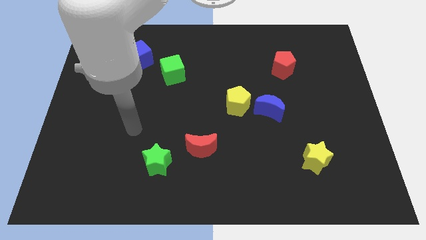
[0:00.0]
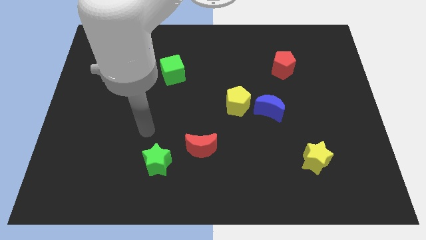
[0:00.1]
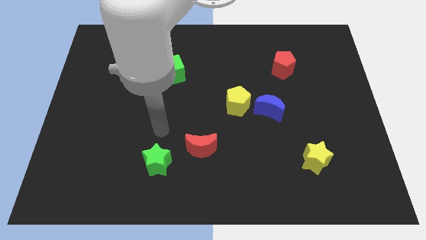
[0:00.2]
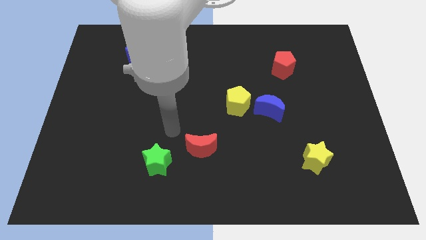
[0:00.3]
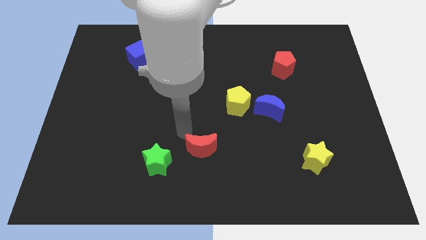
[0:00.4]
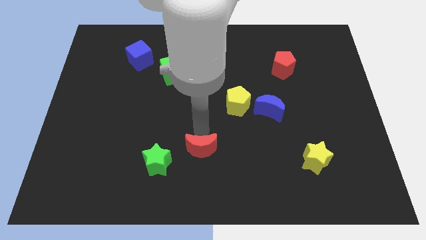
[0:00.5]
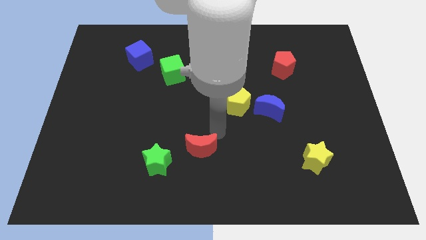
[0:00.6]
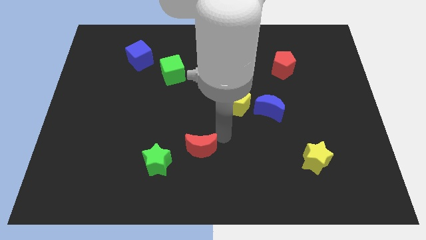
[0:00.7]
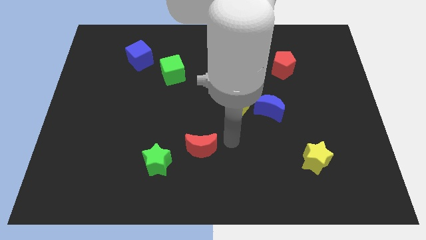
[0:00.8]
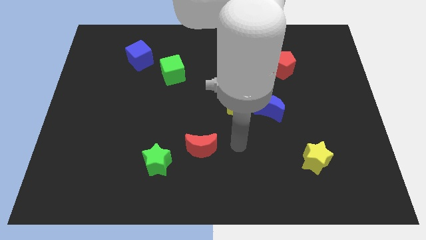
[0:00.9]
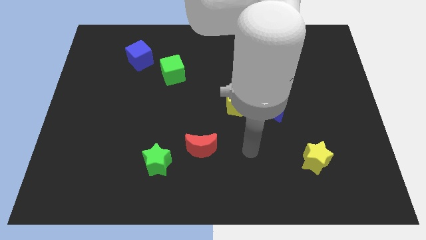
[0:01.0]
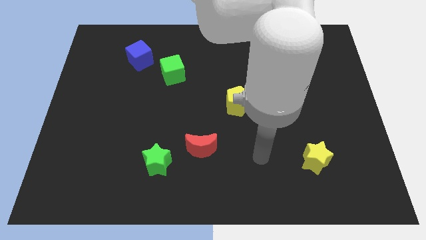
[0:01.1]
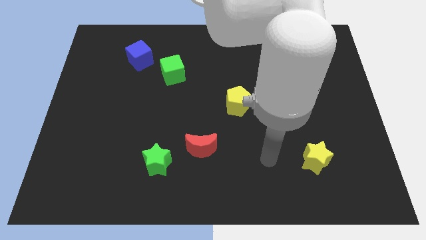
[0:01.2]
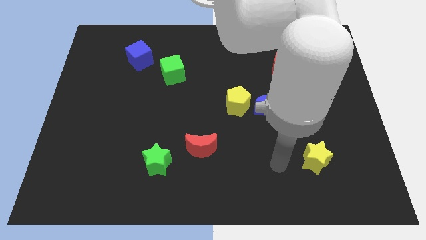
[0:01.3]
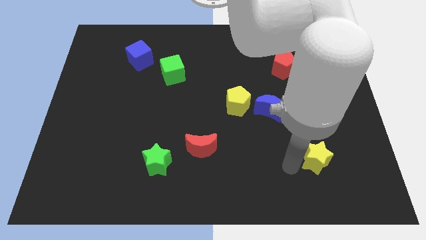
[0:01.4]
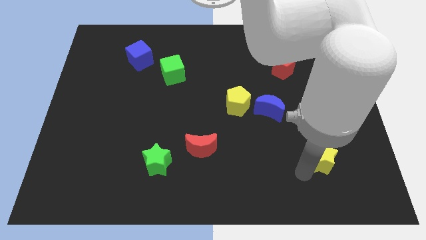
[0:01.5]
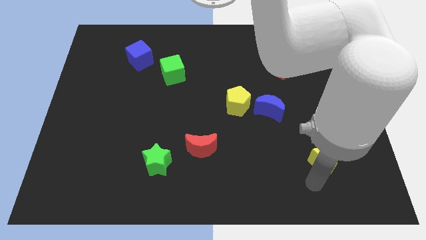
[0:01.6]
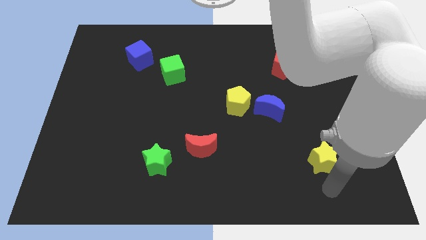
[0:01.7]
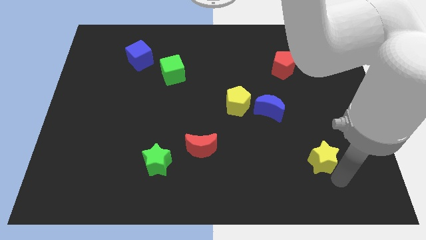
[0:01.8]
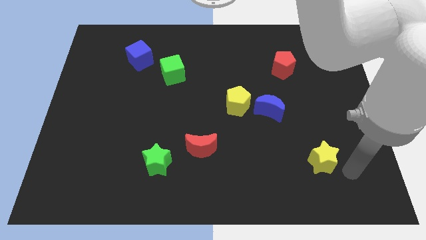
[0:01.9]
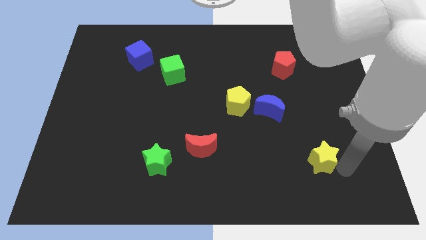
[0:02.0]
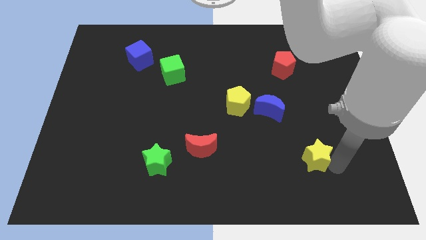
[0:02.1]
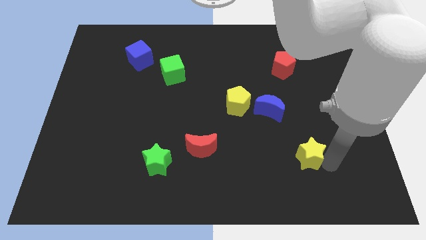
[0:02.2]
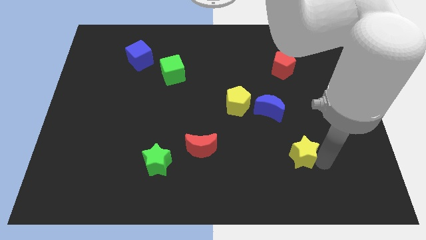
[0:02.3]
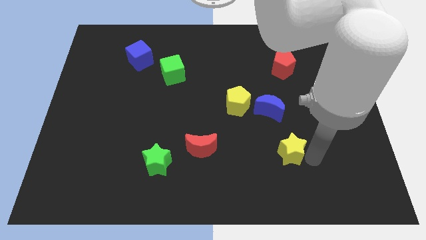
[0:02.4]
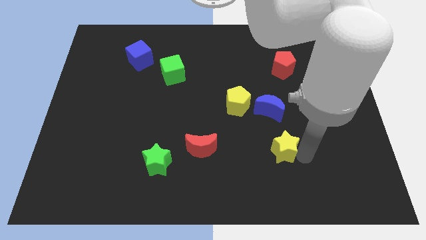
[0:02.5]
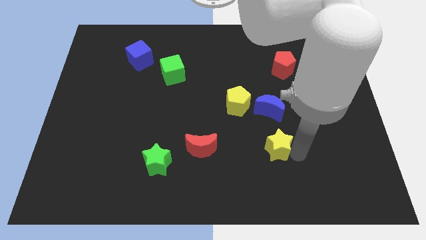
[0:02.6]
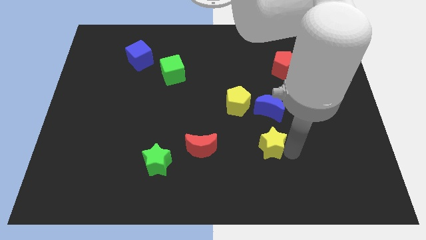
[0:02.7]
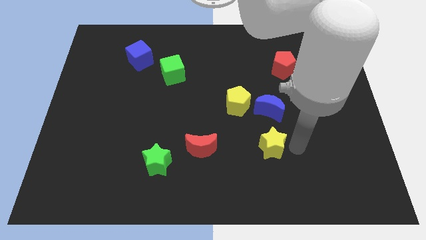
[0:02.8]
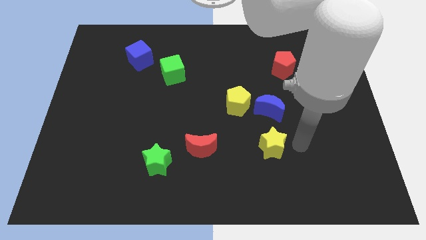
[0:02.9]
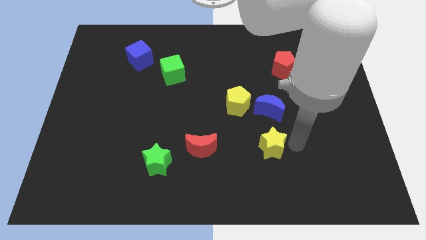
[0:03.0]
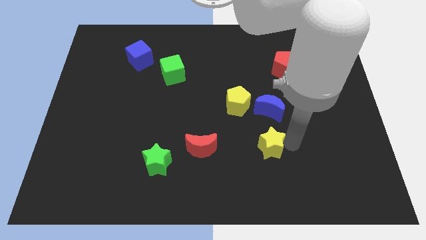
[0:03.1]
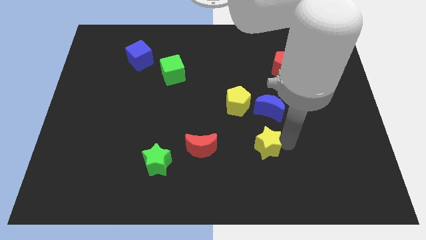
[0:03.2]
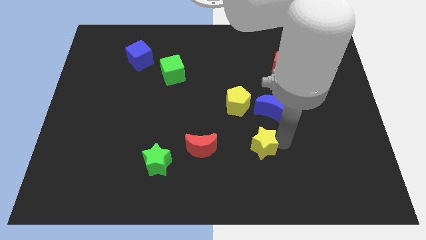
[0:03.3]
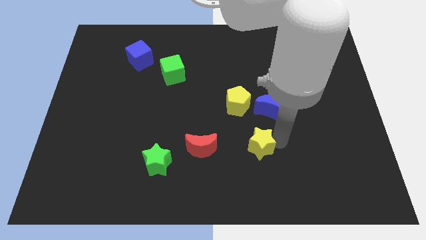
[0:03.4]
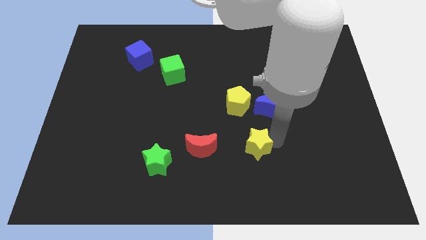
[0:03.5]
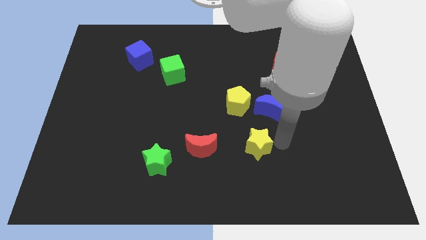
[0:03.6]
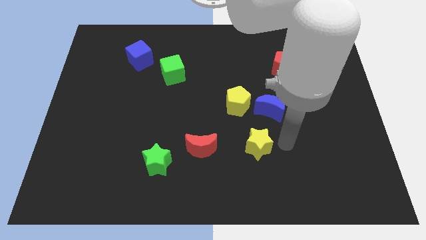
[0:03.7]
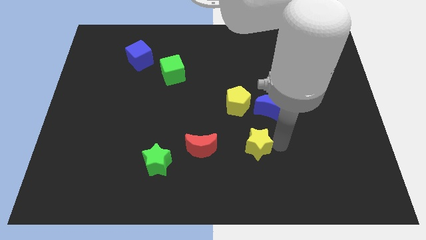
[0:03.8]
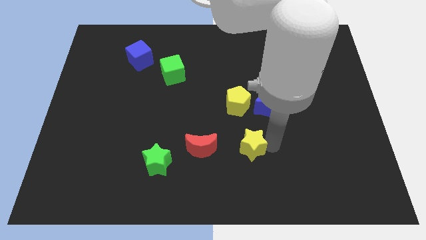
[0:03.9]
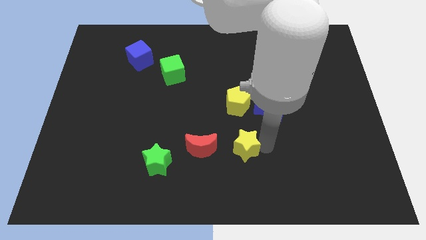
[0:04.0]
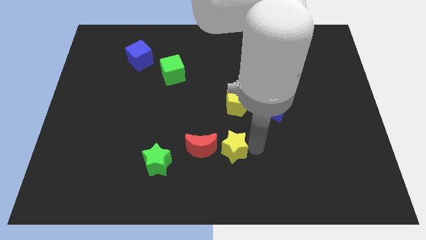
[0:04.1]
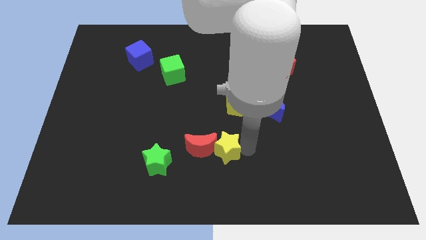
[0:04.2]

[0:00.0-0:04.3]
move the yellow star towards the red moon

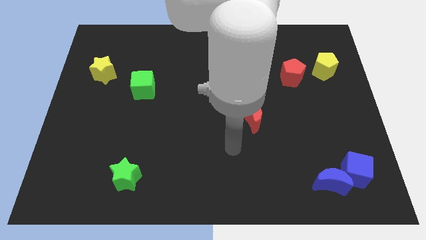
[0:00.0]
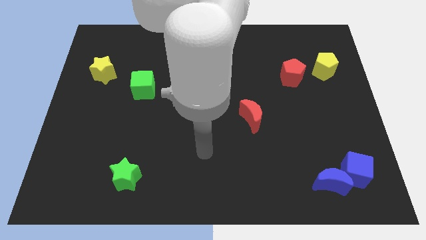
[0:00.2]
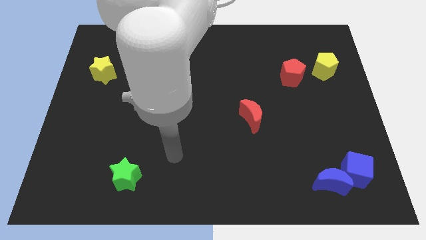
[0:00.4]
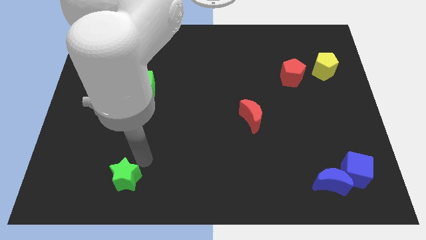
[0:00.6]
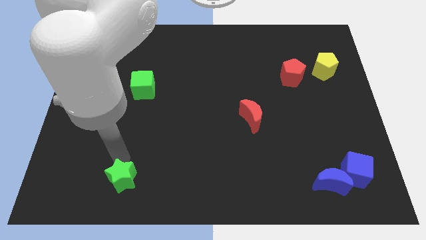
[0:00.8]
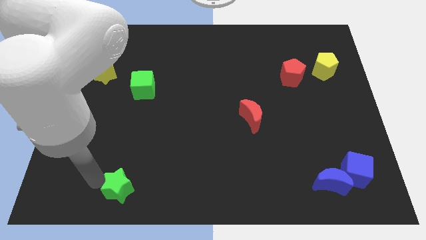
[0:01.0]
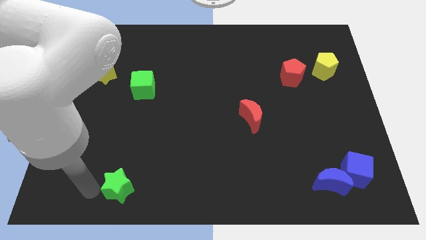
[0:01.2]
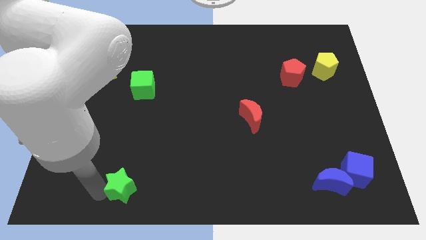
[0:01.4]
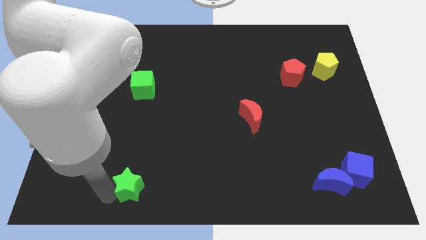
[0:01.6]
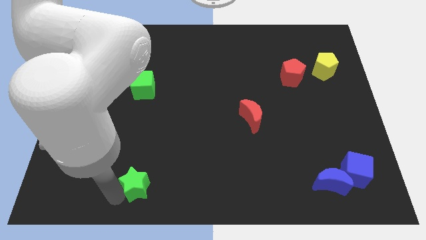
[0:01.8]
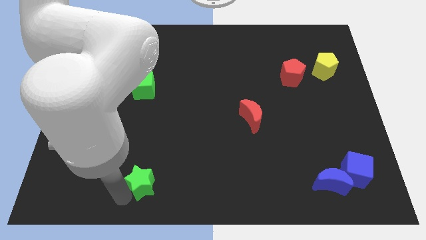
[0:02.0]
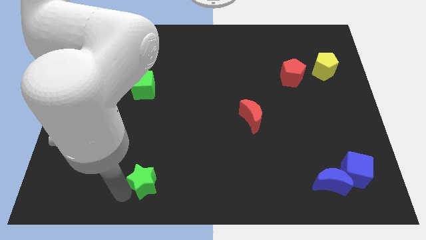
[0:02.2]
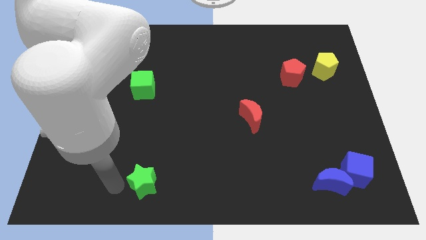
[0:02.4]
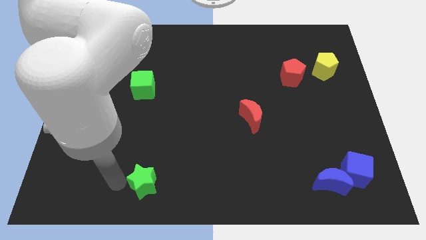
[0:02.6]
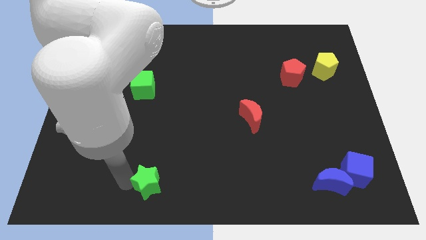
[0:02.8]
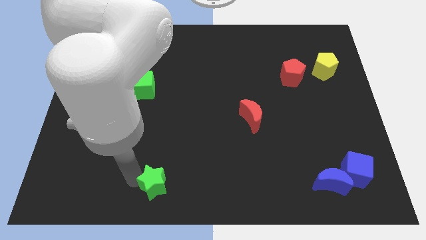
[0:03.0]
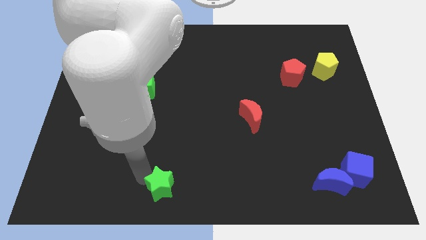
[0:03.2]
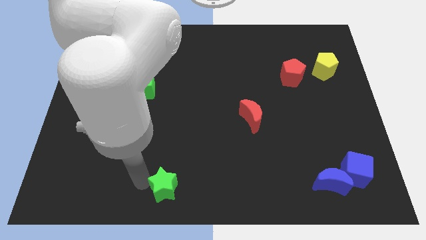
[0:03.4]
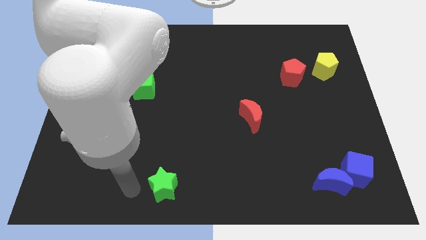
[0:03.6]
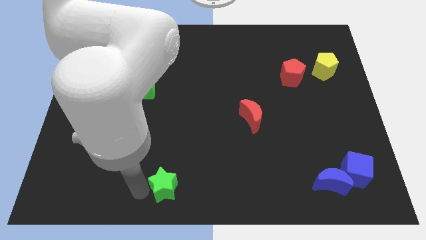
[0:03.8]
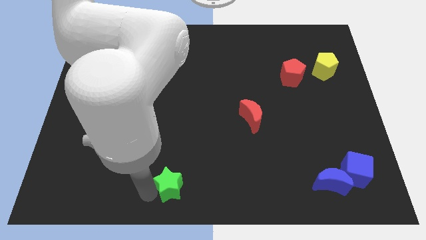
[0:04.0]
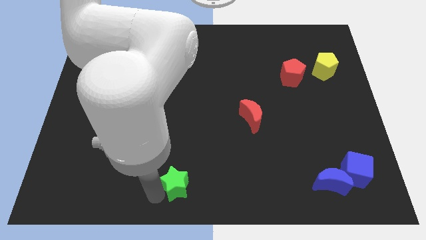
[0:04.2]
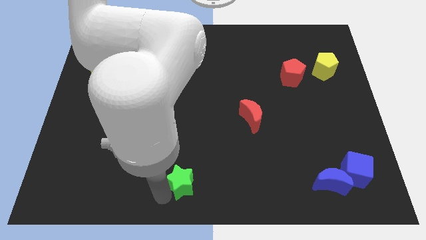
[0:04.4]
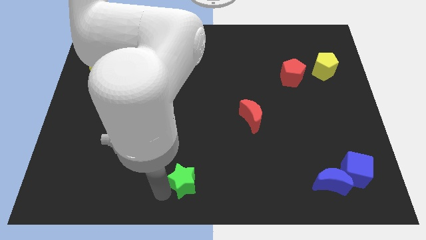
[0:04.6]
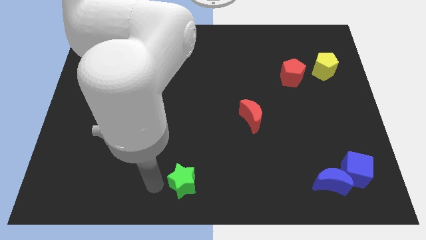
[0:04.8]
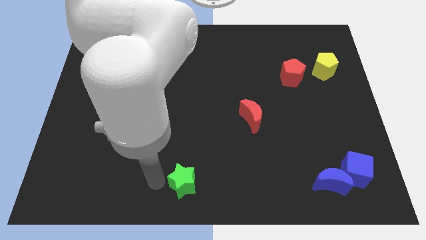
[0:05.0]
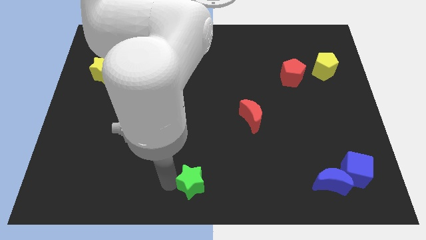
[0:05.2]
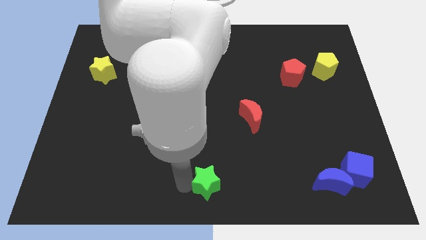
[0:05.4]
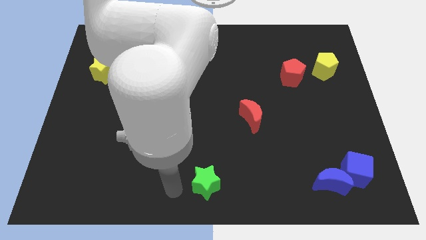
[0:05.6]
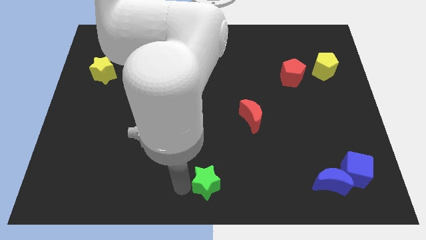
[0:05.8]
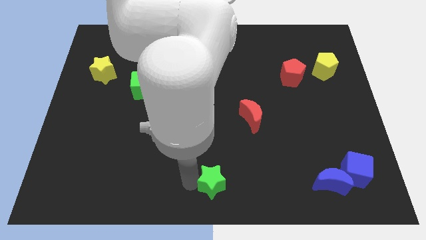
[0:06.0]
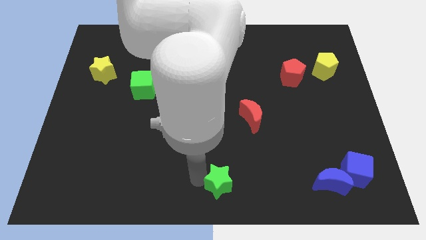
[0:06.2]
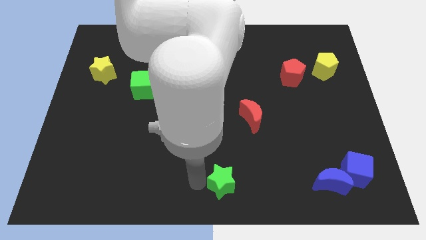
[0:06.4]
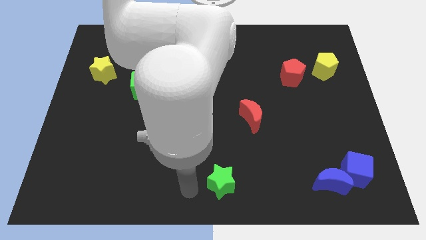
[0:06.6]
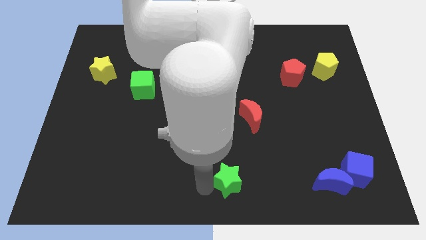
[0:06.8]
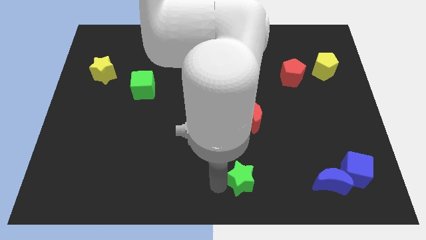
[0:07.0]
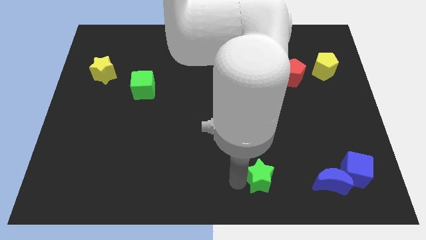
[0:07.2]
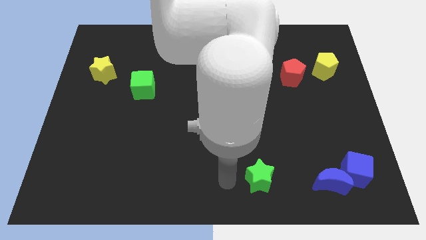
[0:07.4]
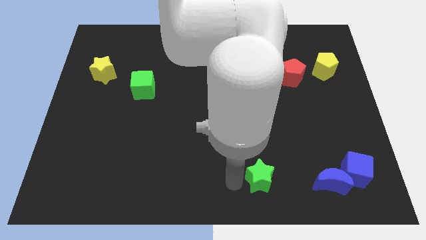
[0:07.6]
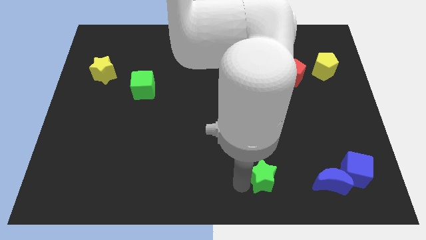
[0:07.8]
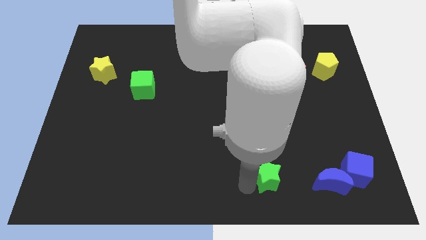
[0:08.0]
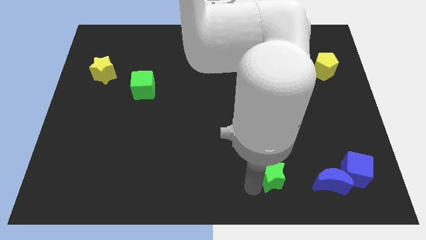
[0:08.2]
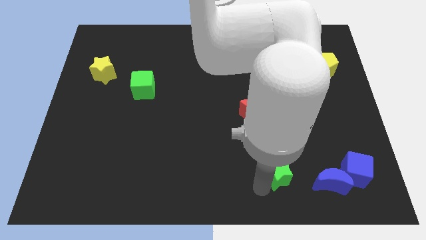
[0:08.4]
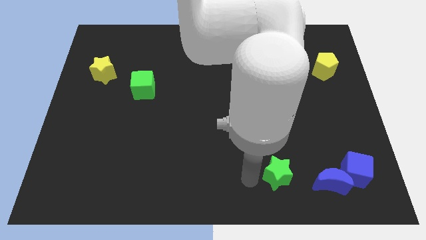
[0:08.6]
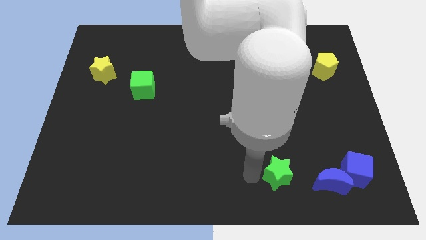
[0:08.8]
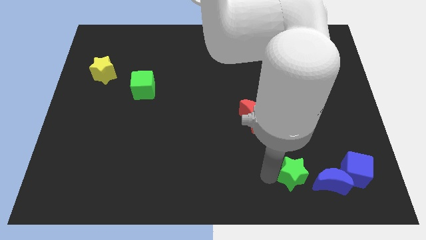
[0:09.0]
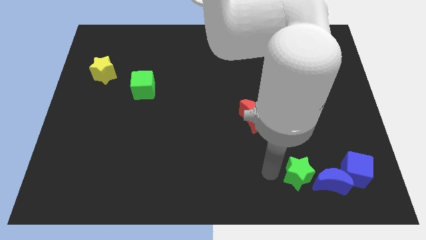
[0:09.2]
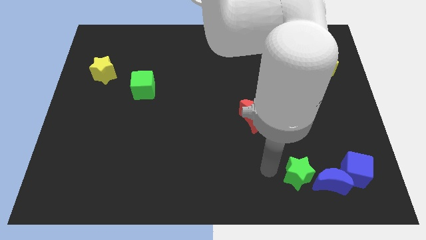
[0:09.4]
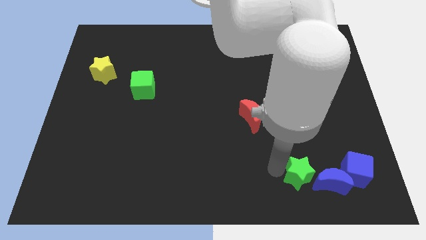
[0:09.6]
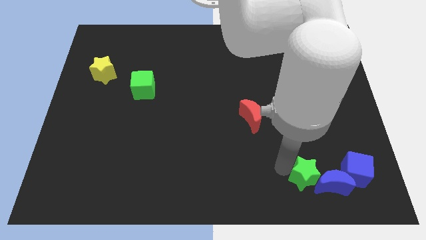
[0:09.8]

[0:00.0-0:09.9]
move the green star to the blue moon
